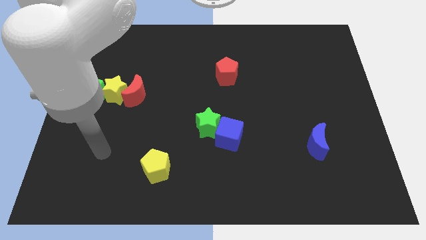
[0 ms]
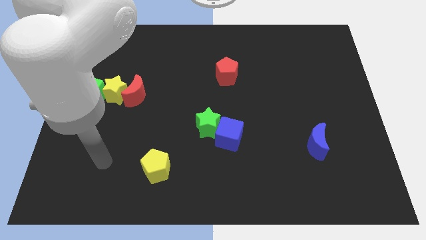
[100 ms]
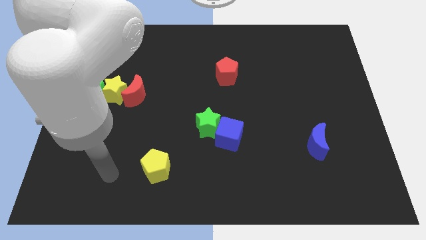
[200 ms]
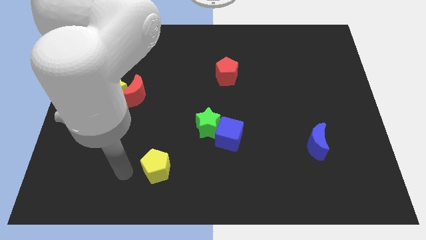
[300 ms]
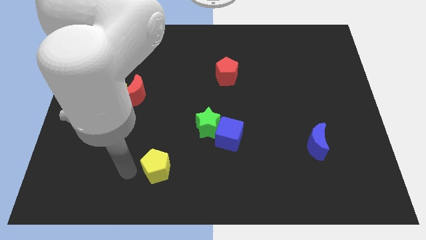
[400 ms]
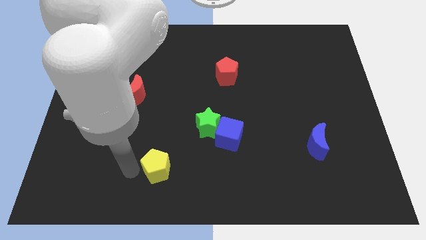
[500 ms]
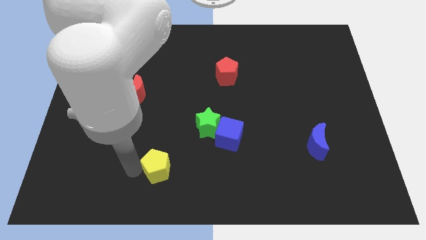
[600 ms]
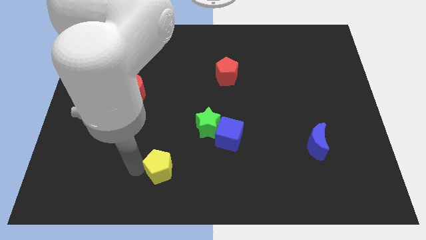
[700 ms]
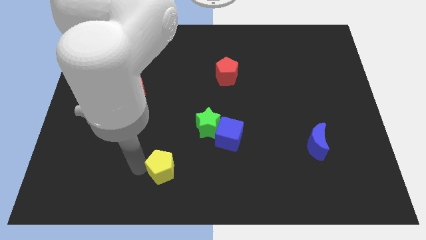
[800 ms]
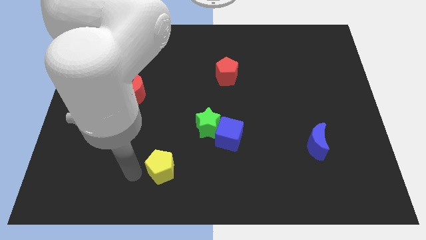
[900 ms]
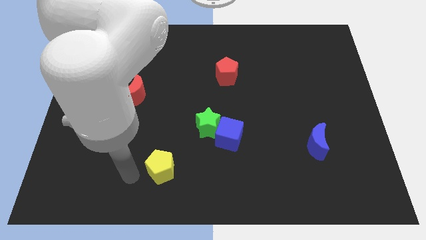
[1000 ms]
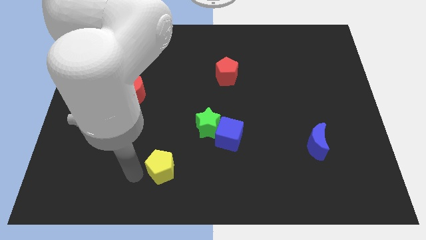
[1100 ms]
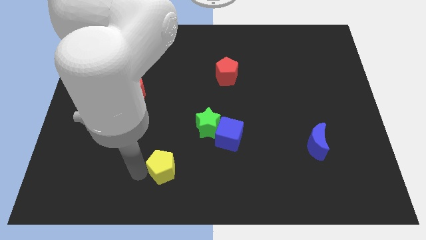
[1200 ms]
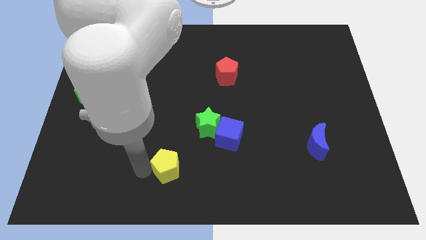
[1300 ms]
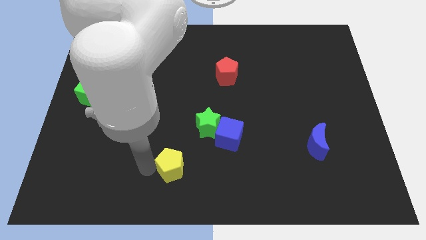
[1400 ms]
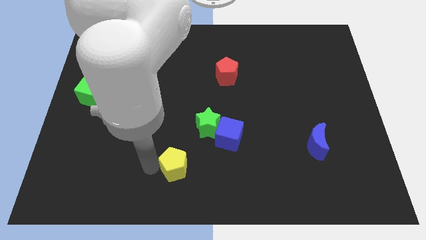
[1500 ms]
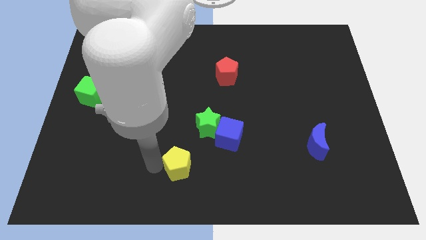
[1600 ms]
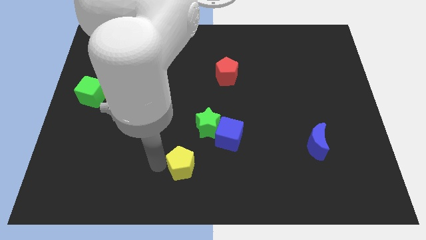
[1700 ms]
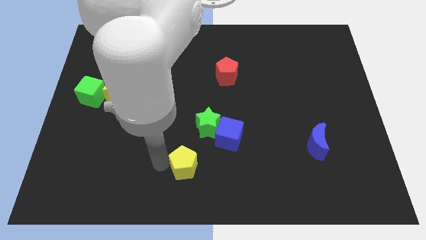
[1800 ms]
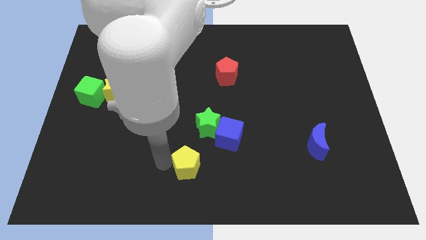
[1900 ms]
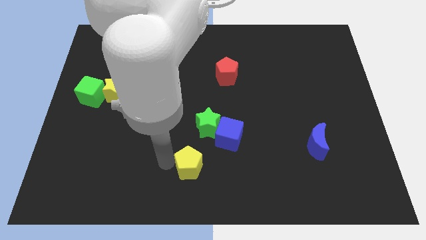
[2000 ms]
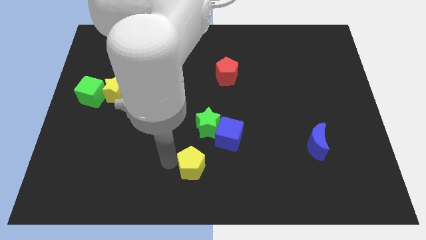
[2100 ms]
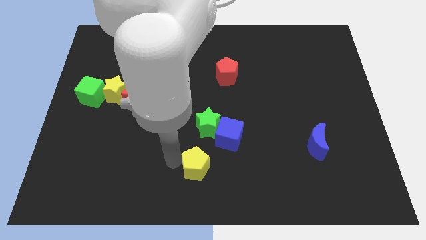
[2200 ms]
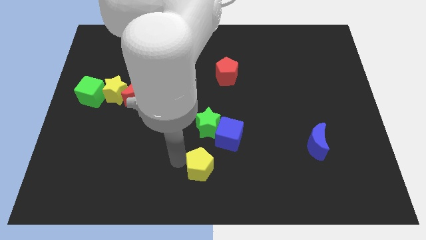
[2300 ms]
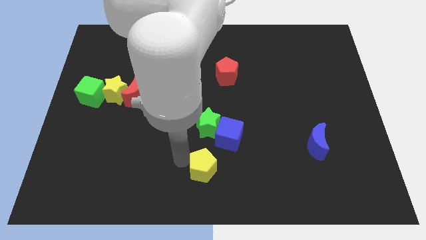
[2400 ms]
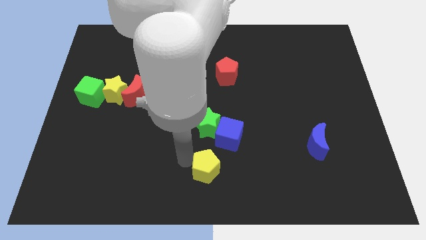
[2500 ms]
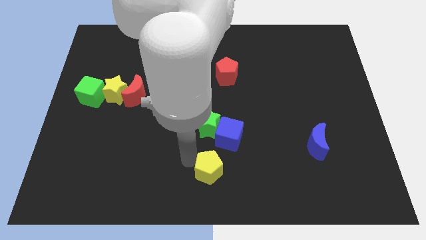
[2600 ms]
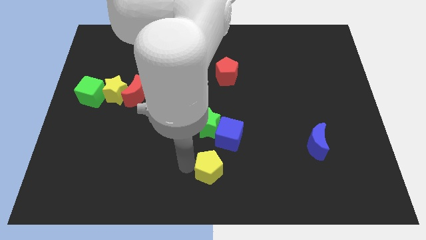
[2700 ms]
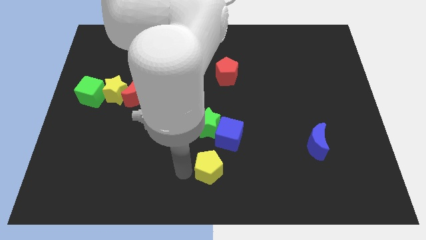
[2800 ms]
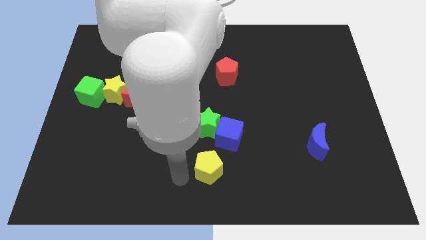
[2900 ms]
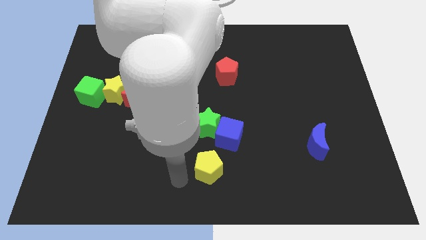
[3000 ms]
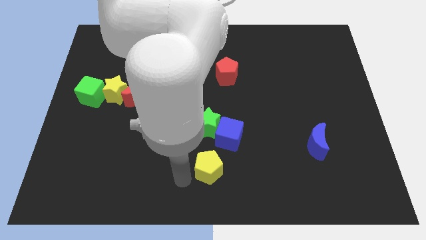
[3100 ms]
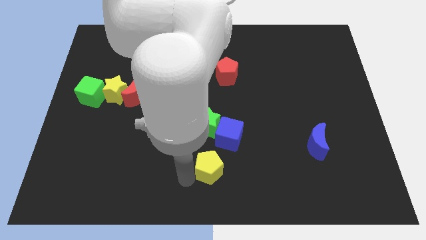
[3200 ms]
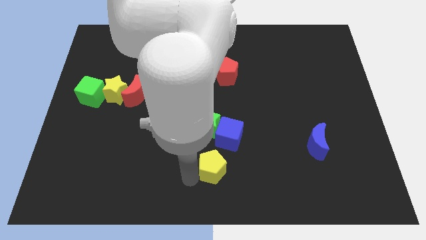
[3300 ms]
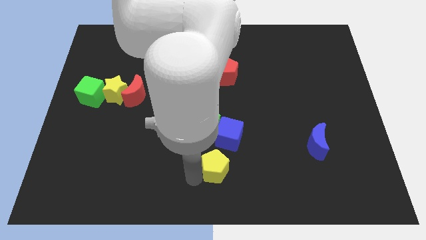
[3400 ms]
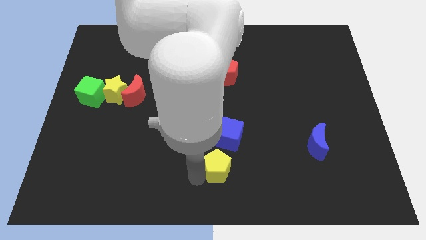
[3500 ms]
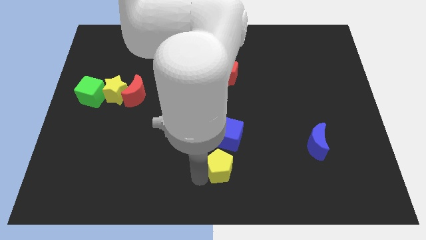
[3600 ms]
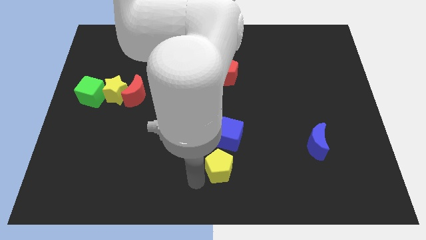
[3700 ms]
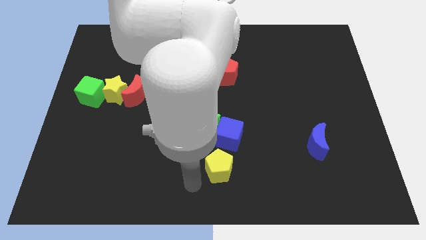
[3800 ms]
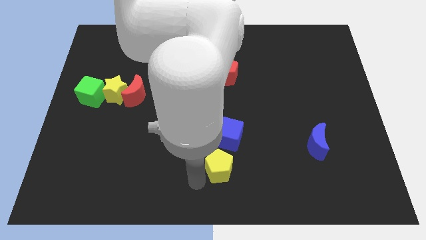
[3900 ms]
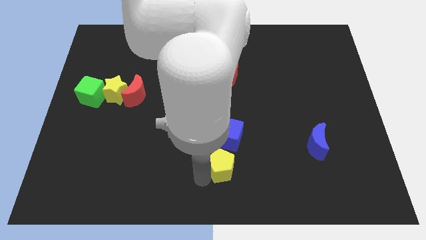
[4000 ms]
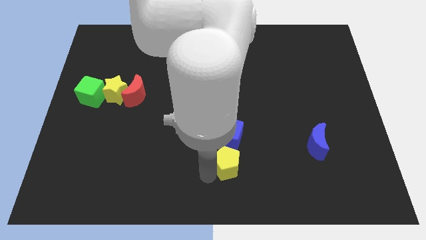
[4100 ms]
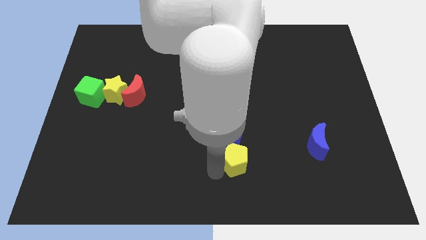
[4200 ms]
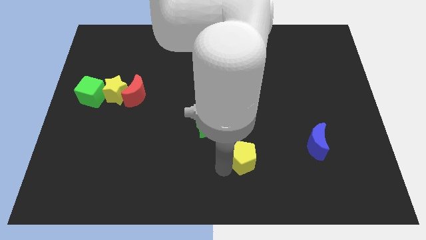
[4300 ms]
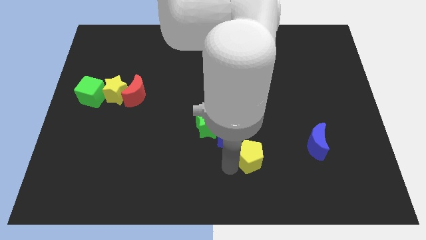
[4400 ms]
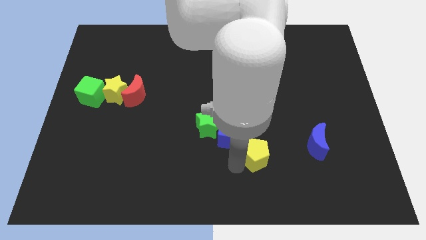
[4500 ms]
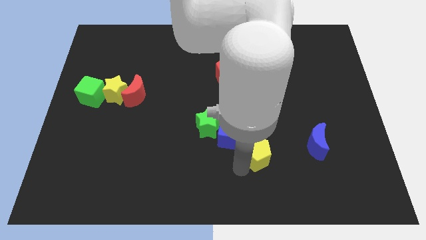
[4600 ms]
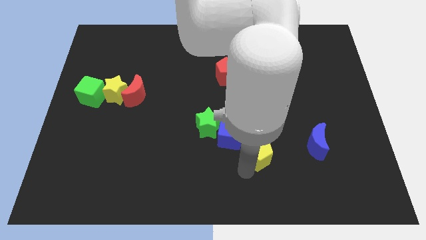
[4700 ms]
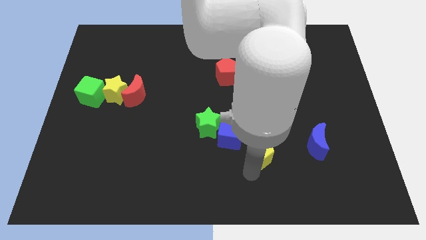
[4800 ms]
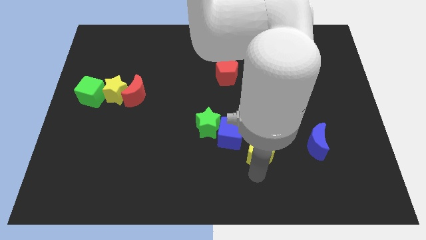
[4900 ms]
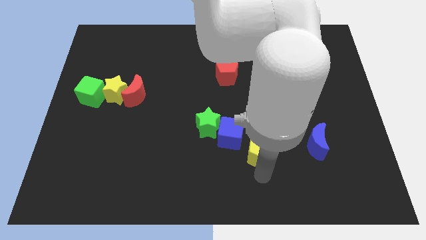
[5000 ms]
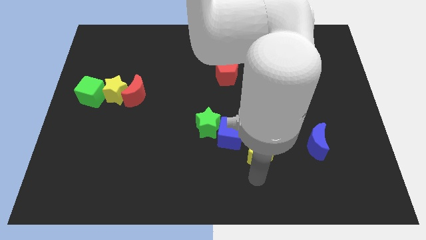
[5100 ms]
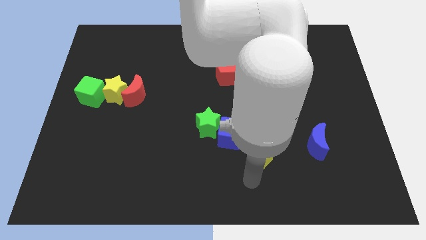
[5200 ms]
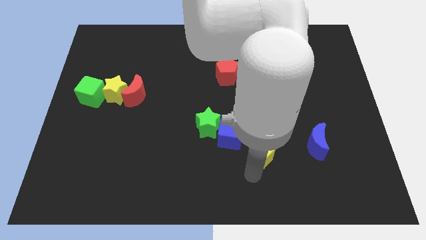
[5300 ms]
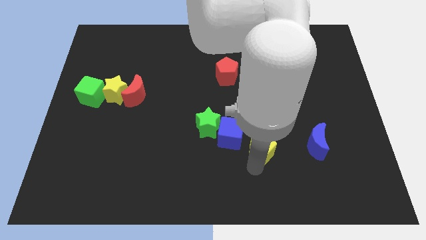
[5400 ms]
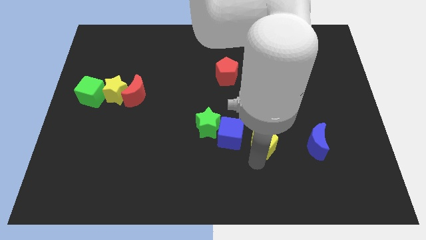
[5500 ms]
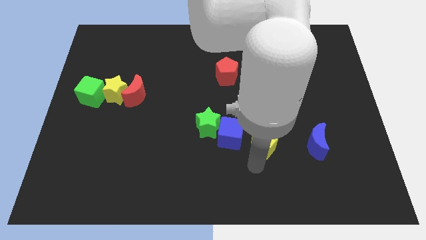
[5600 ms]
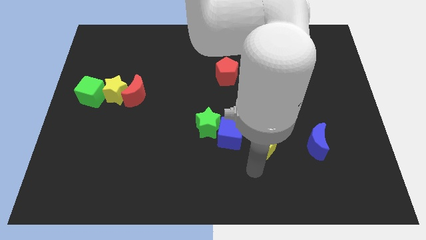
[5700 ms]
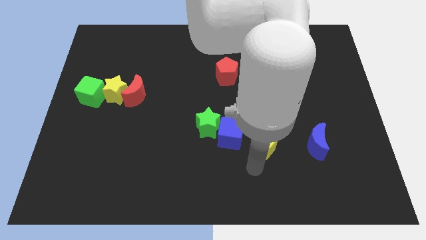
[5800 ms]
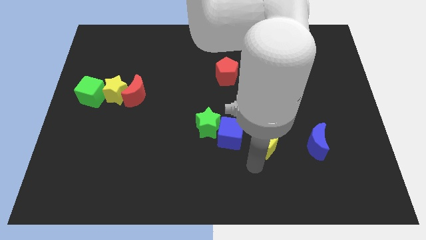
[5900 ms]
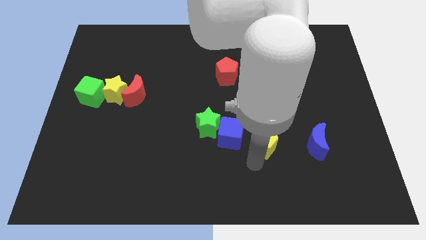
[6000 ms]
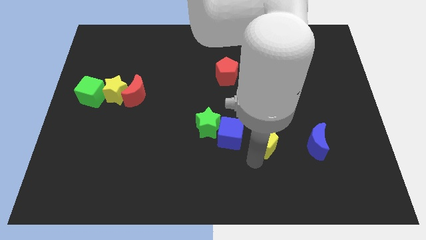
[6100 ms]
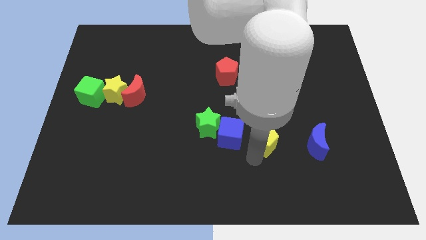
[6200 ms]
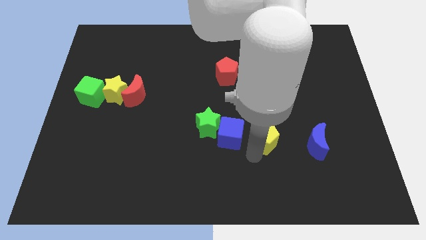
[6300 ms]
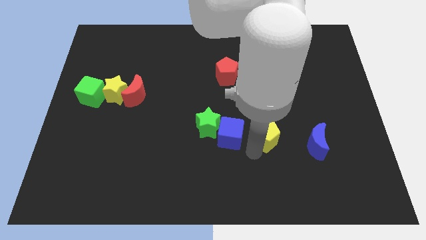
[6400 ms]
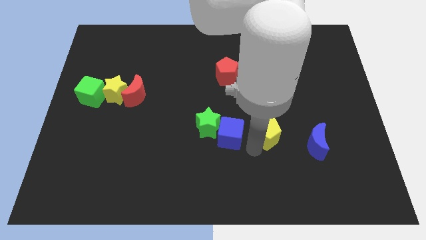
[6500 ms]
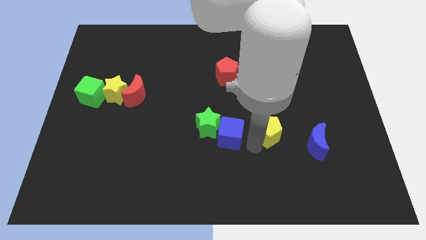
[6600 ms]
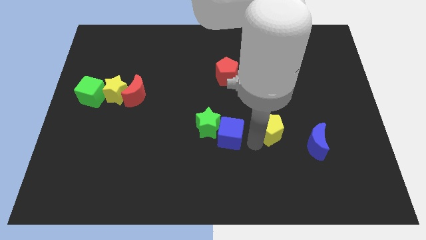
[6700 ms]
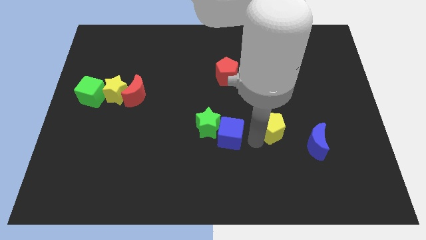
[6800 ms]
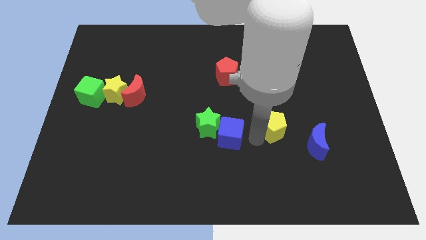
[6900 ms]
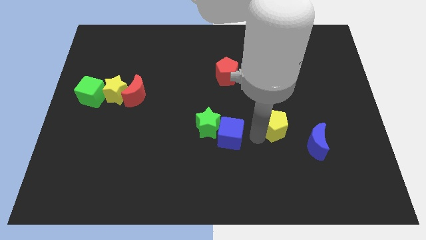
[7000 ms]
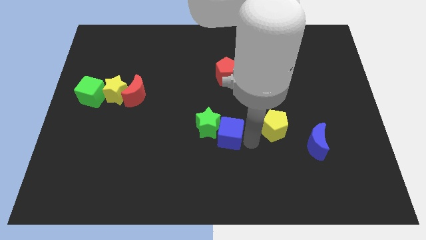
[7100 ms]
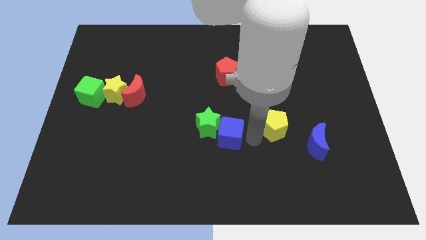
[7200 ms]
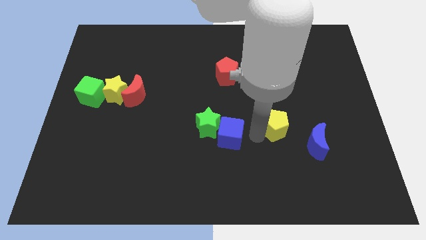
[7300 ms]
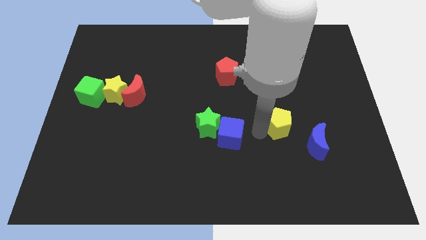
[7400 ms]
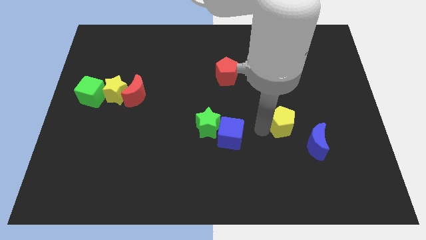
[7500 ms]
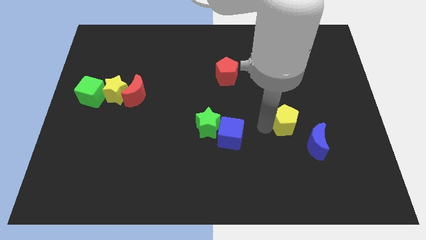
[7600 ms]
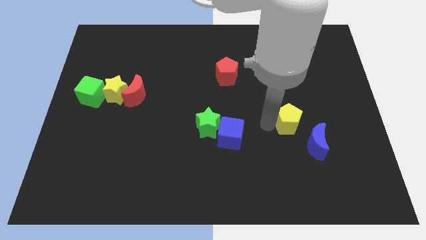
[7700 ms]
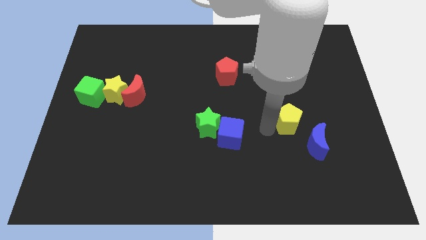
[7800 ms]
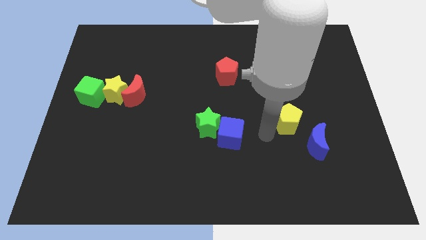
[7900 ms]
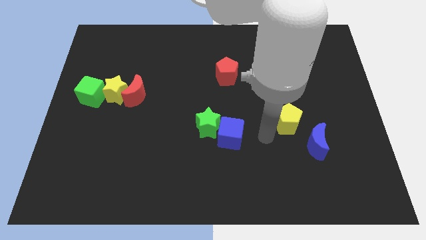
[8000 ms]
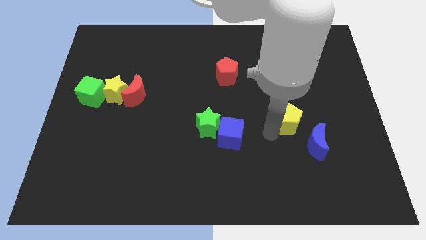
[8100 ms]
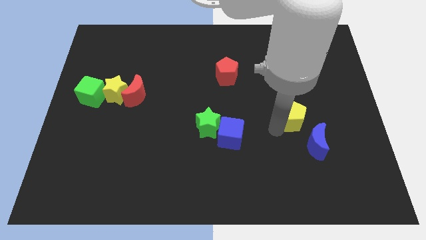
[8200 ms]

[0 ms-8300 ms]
push the yellow pentagon above the blue moon
